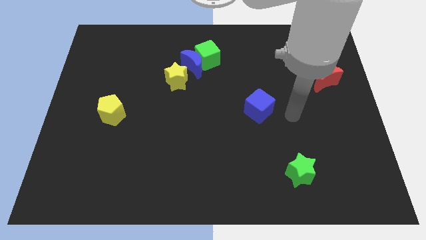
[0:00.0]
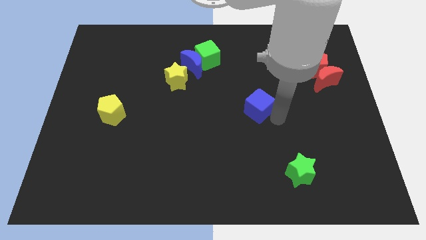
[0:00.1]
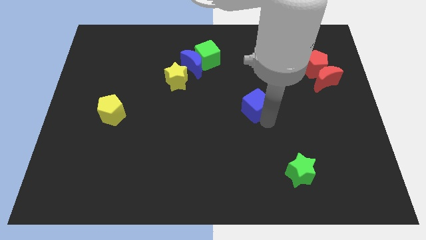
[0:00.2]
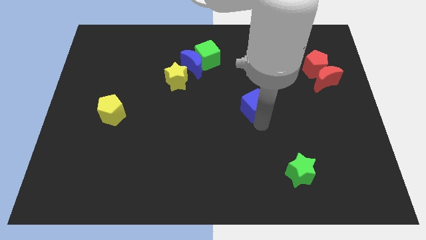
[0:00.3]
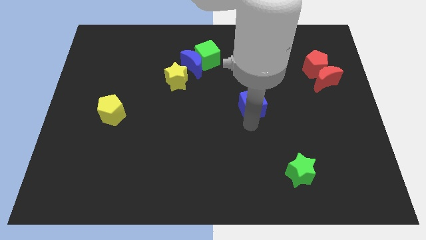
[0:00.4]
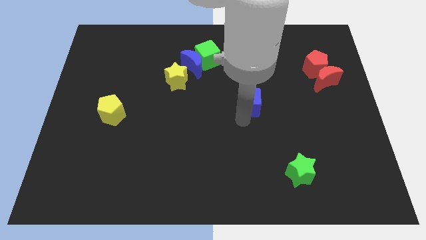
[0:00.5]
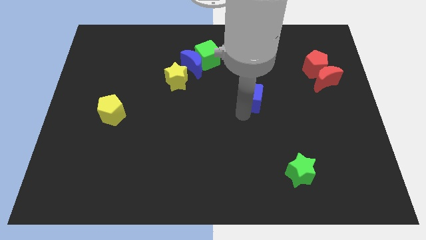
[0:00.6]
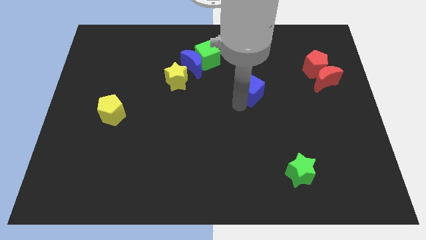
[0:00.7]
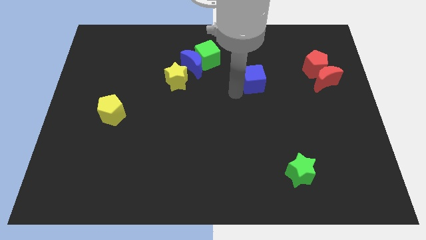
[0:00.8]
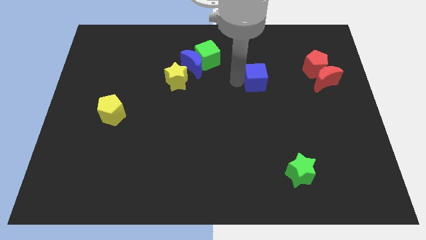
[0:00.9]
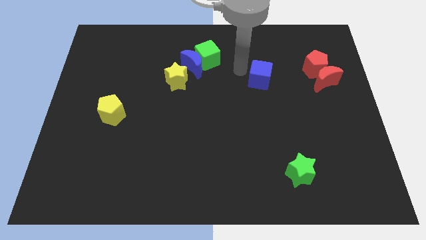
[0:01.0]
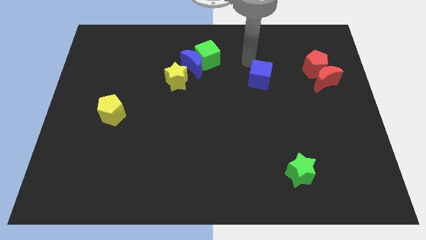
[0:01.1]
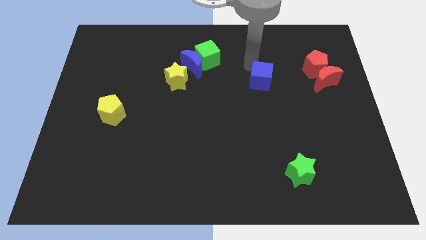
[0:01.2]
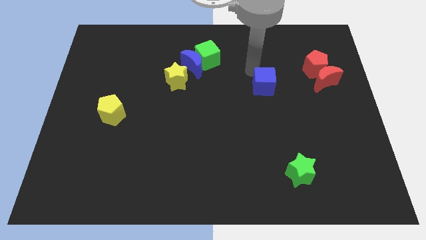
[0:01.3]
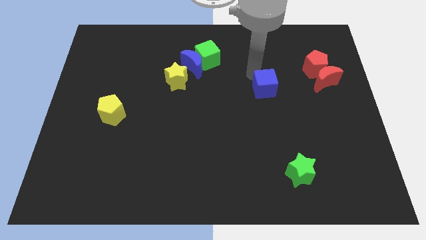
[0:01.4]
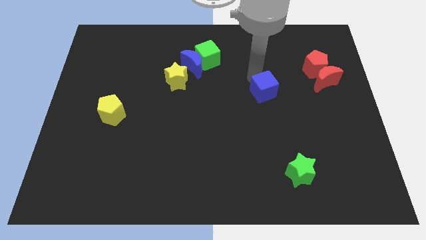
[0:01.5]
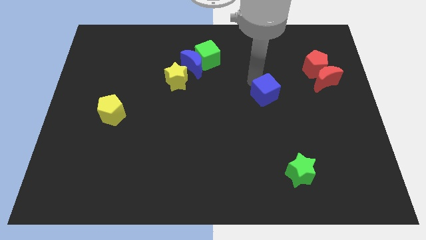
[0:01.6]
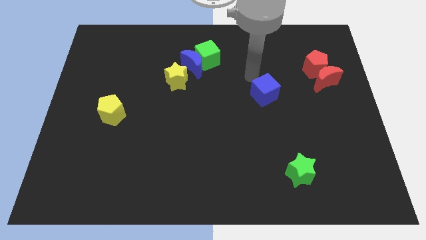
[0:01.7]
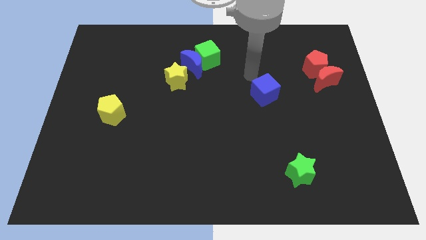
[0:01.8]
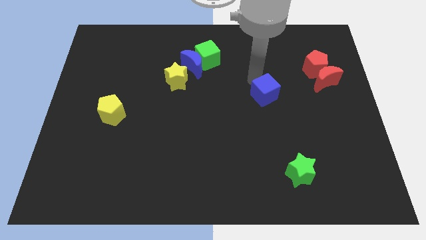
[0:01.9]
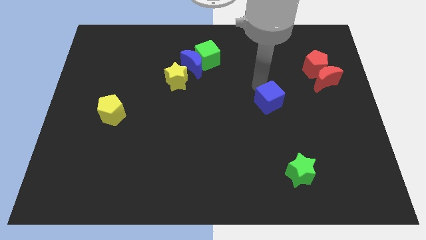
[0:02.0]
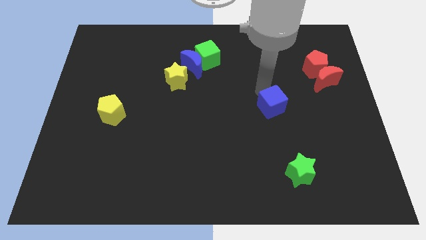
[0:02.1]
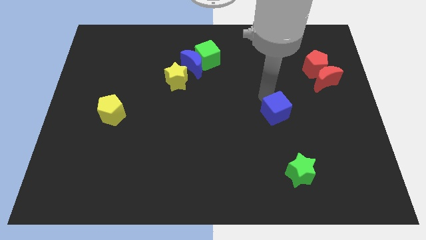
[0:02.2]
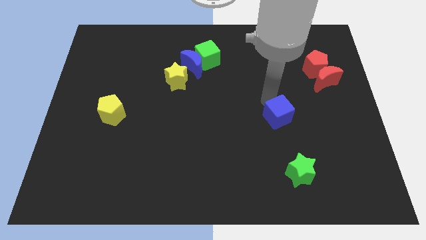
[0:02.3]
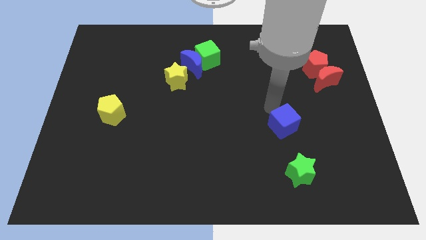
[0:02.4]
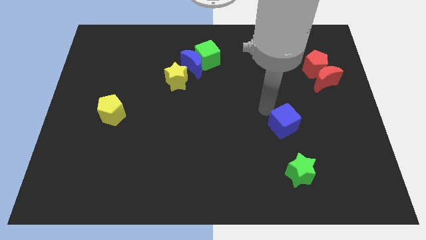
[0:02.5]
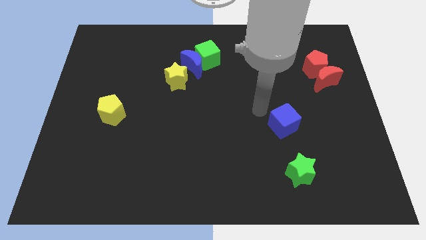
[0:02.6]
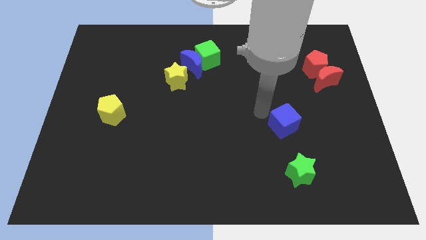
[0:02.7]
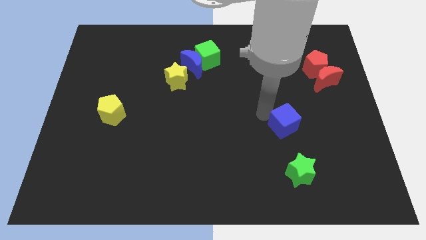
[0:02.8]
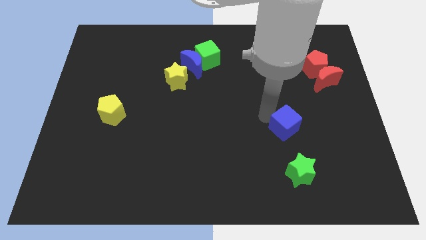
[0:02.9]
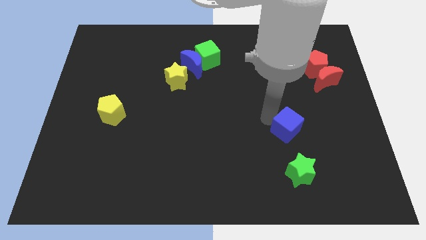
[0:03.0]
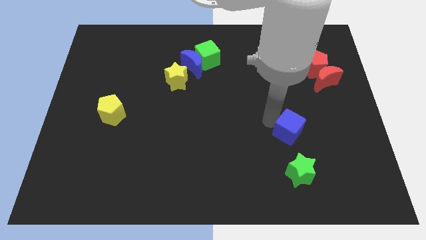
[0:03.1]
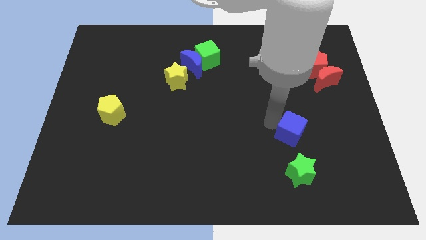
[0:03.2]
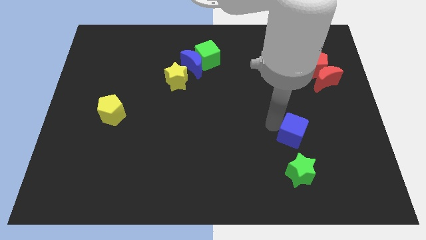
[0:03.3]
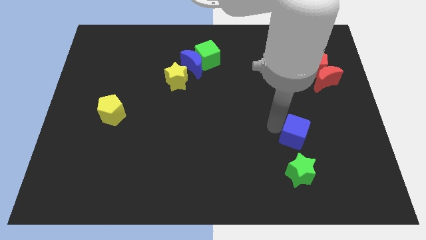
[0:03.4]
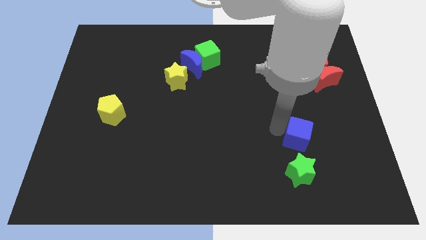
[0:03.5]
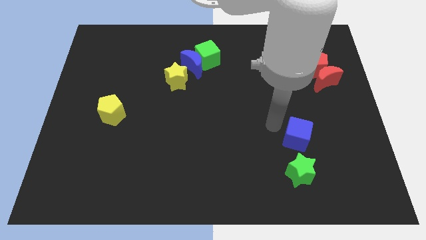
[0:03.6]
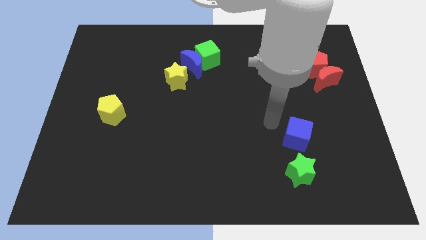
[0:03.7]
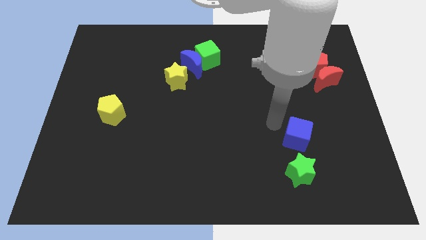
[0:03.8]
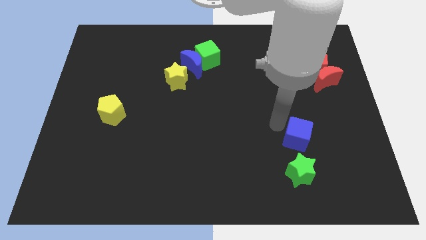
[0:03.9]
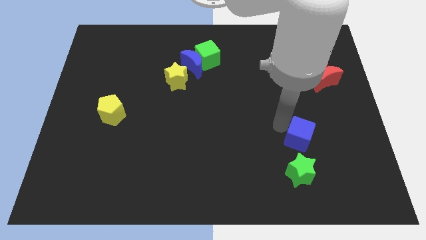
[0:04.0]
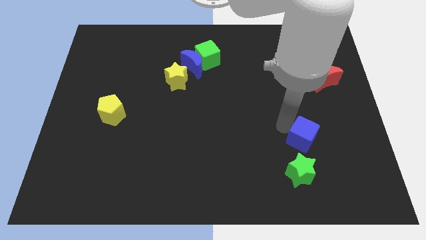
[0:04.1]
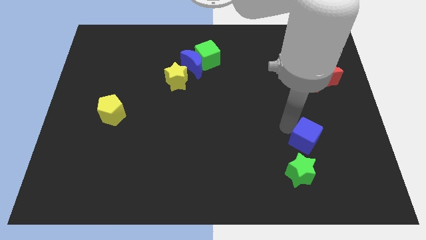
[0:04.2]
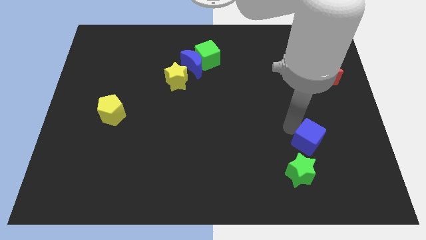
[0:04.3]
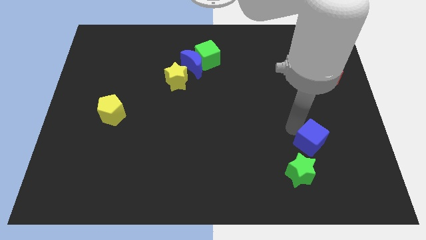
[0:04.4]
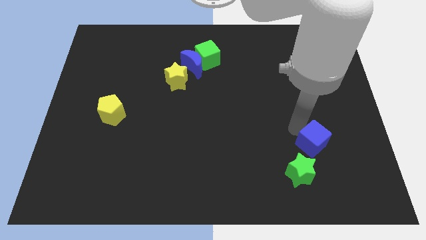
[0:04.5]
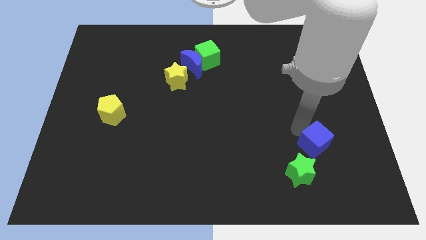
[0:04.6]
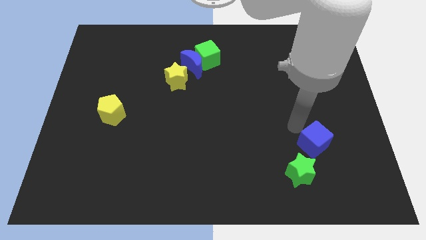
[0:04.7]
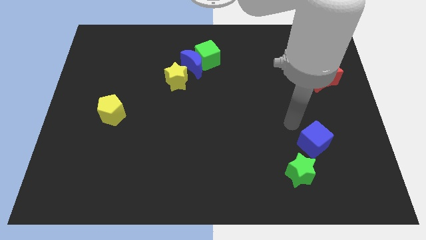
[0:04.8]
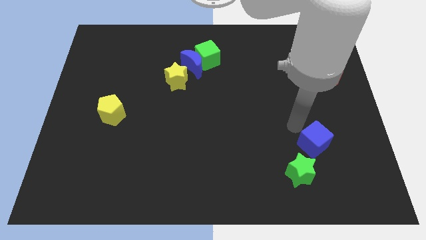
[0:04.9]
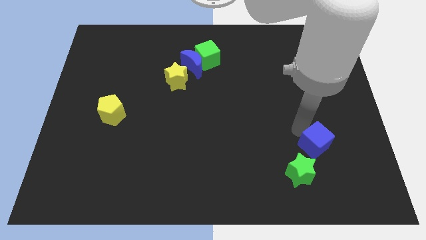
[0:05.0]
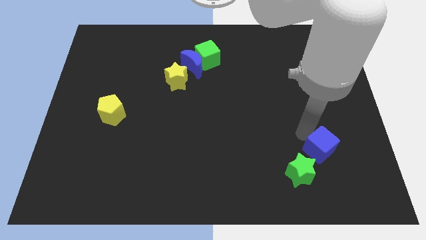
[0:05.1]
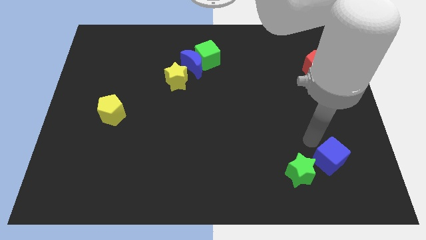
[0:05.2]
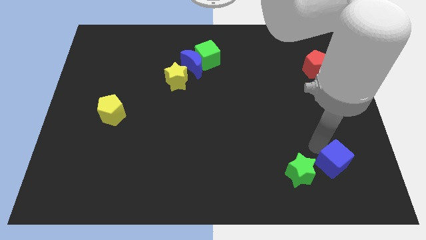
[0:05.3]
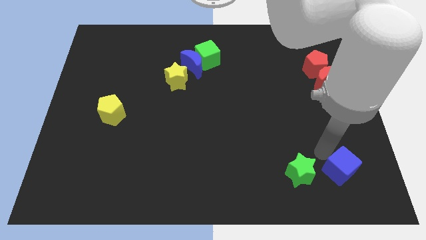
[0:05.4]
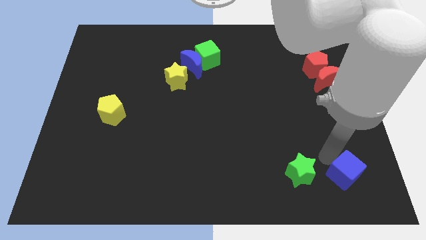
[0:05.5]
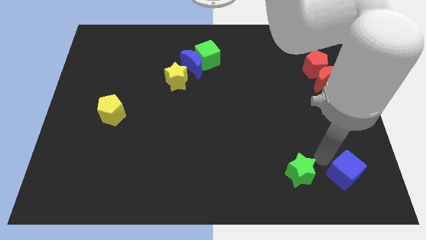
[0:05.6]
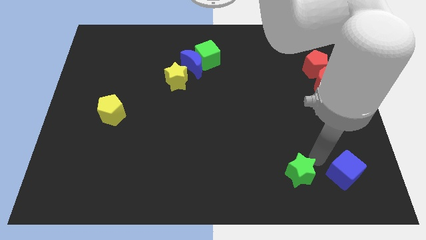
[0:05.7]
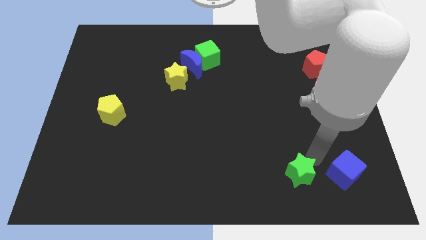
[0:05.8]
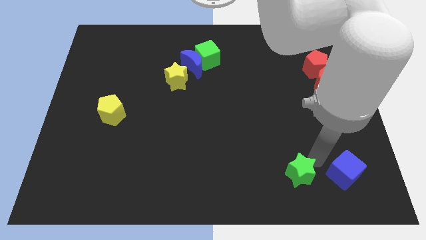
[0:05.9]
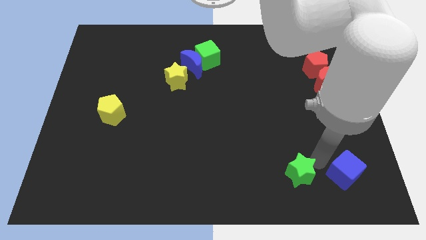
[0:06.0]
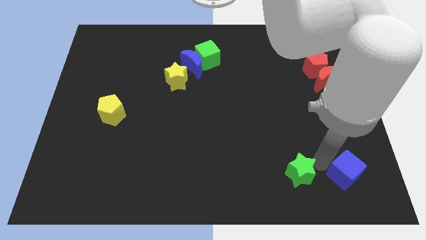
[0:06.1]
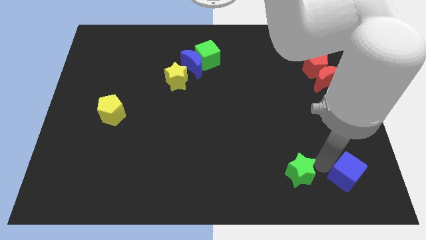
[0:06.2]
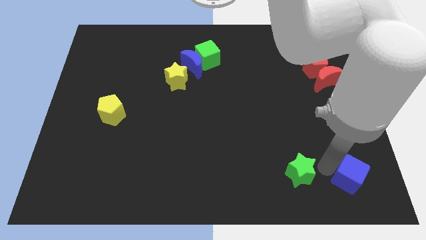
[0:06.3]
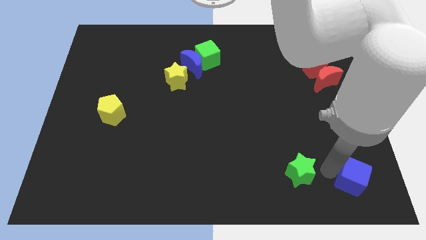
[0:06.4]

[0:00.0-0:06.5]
slide the blue cube to the lower right corner
